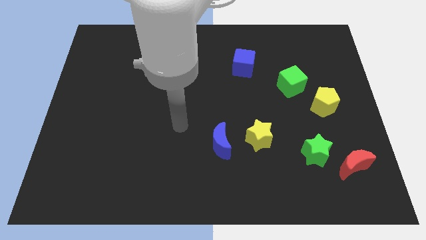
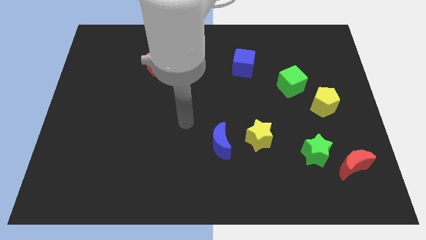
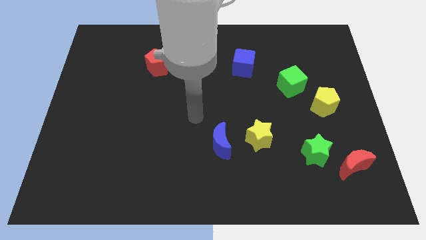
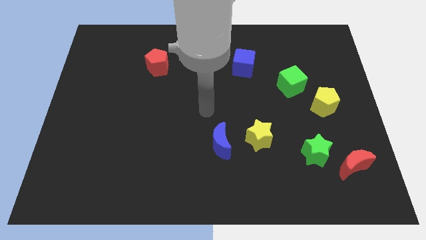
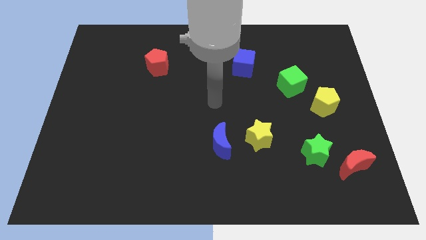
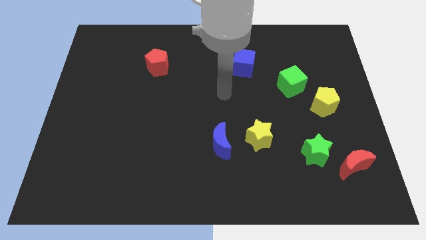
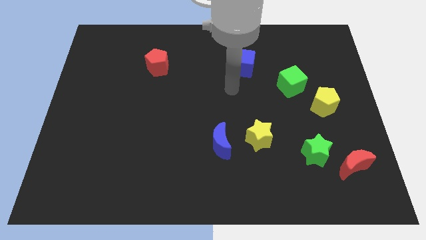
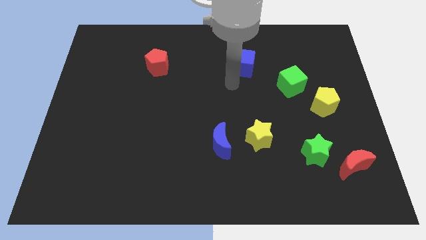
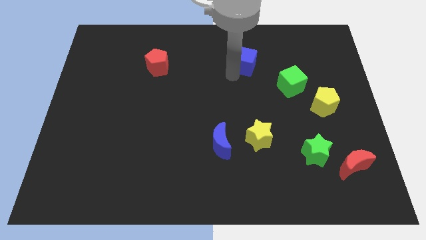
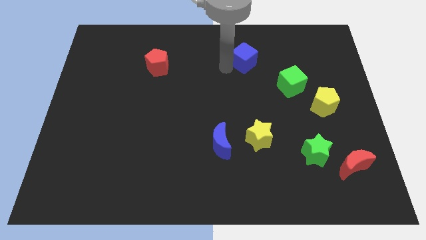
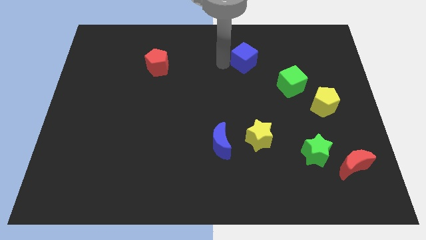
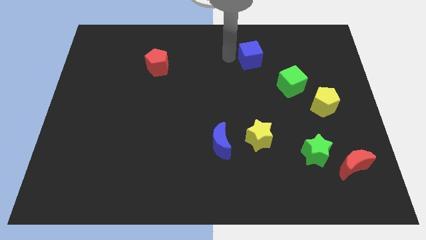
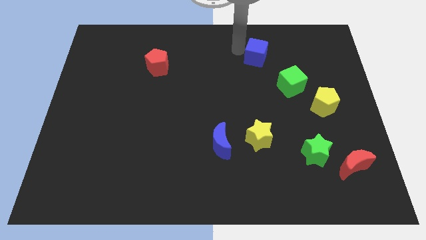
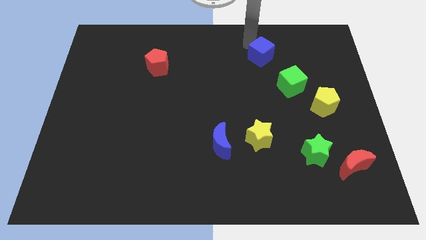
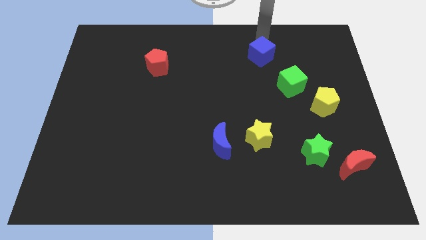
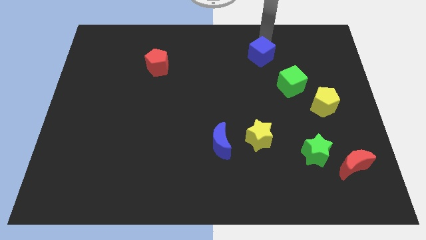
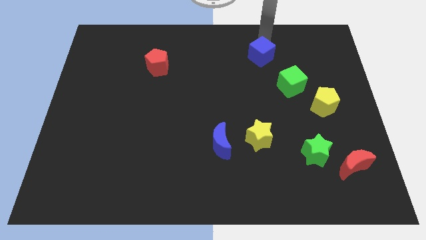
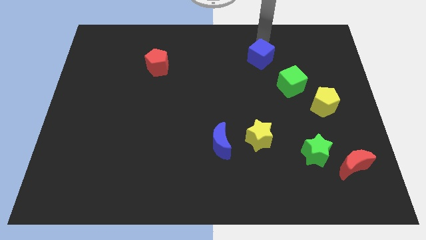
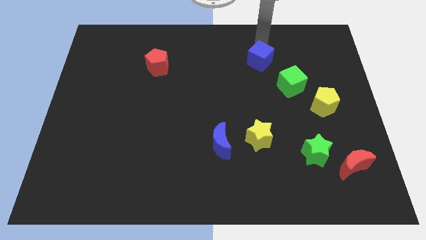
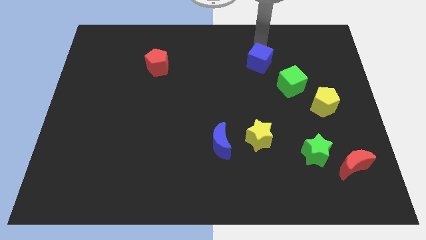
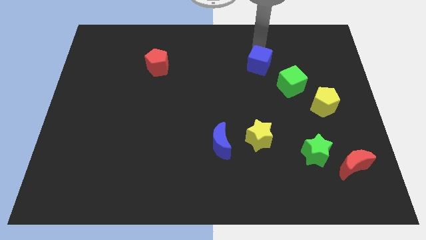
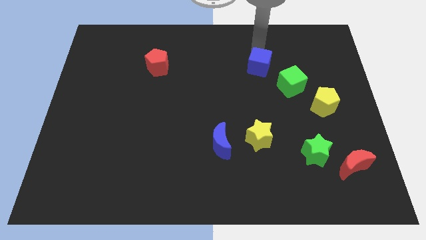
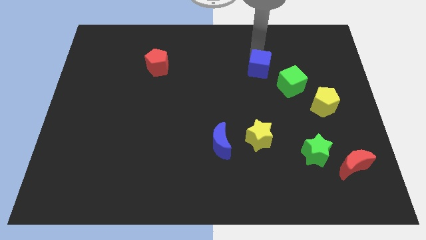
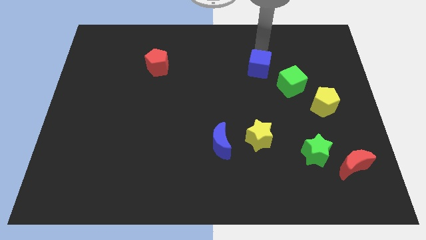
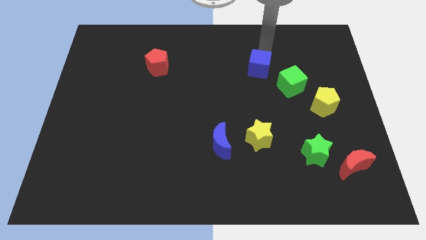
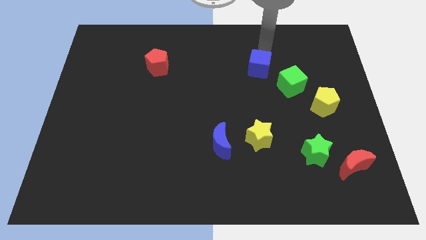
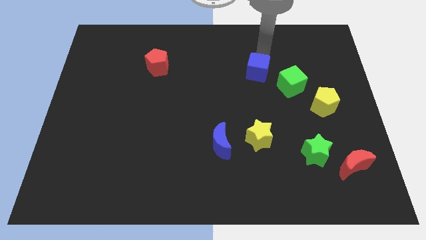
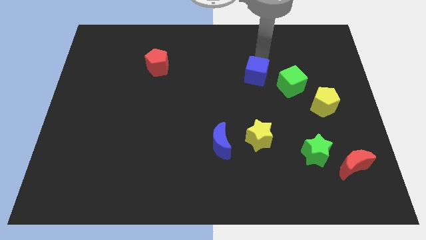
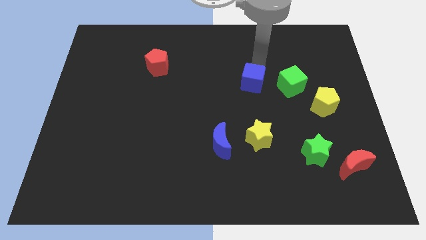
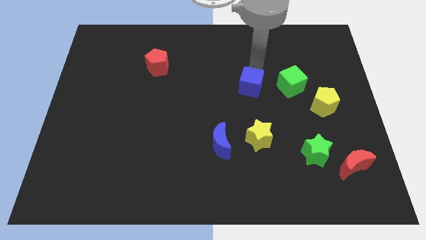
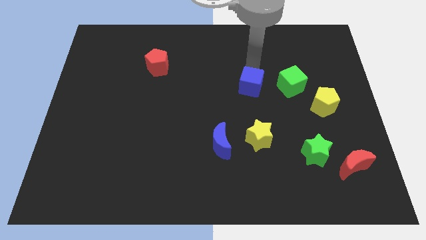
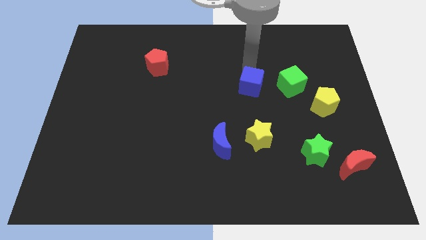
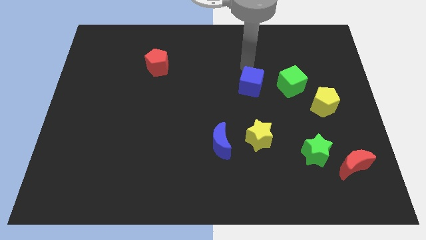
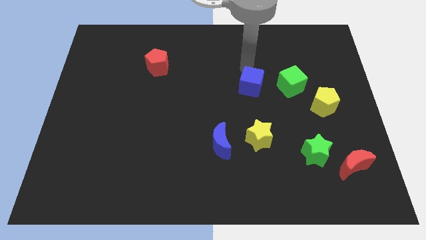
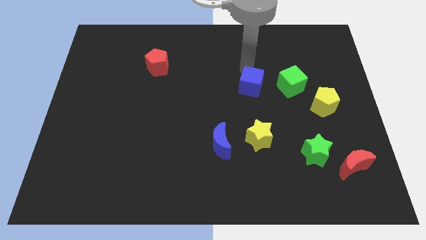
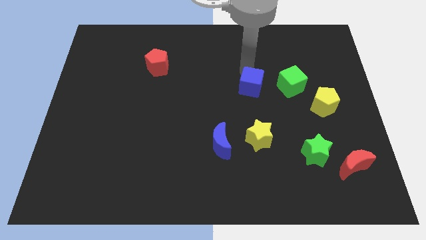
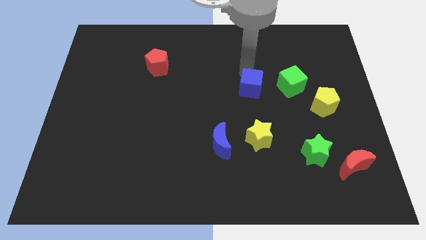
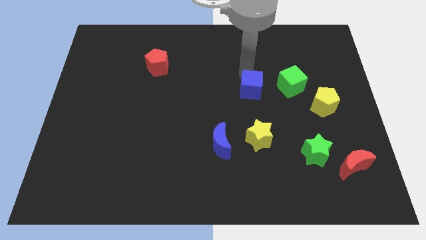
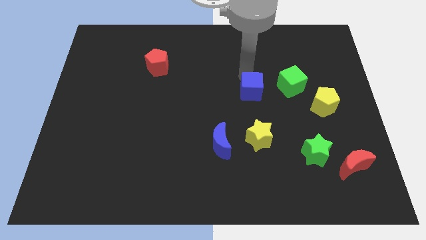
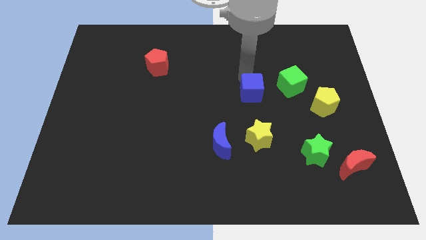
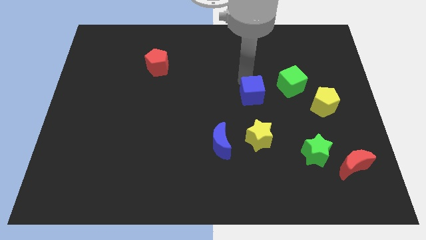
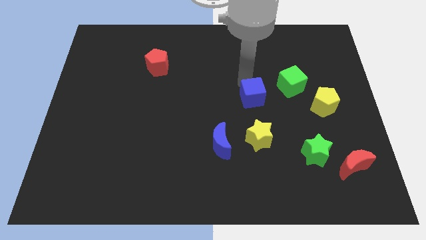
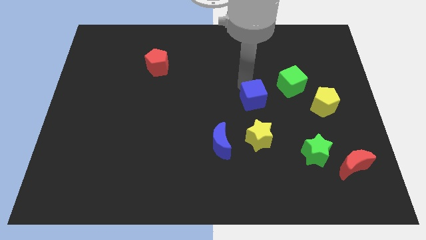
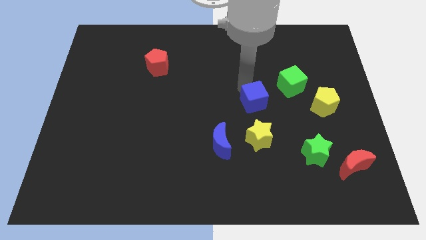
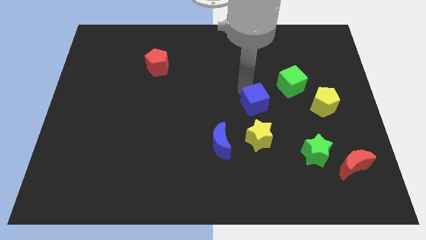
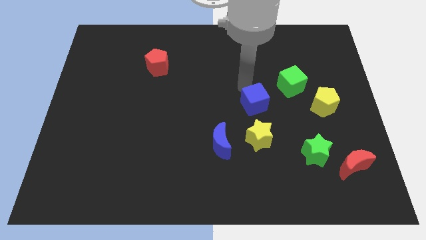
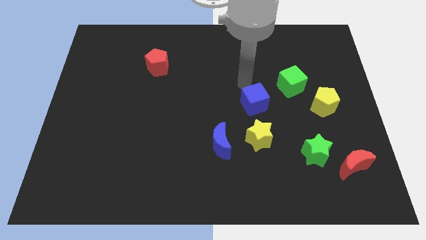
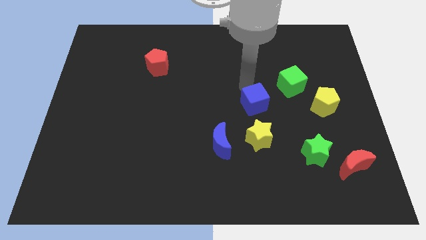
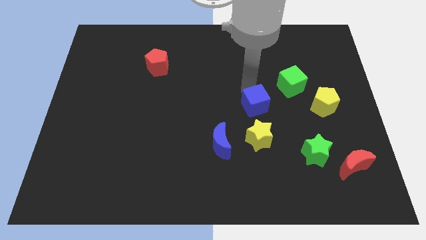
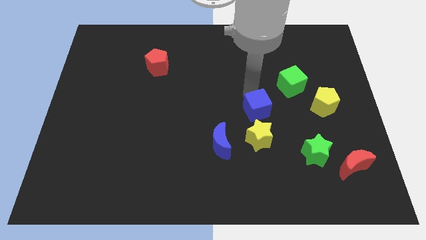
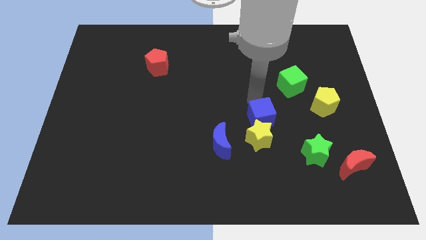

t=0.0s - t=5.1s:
put the blue cube next to the yellow star

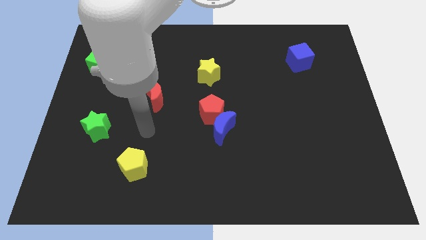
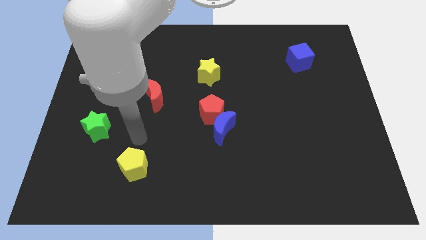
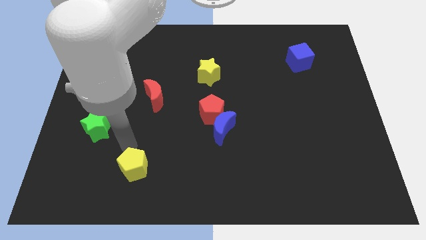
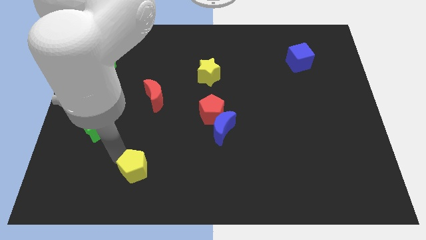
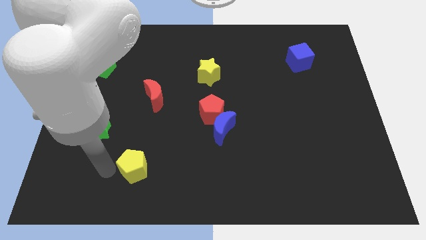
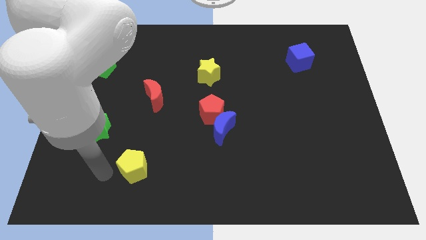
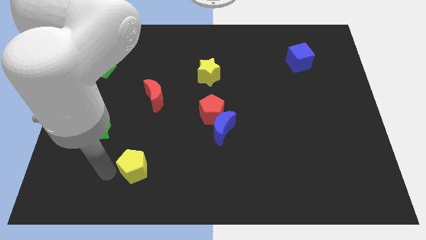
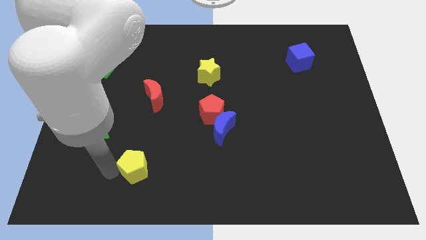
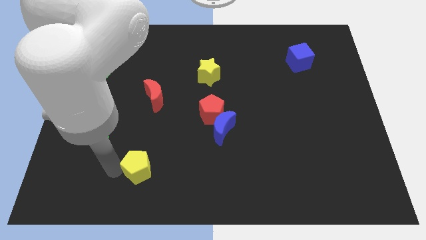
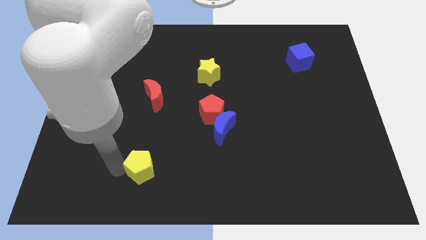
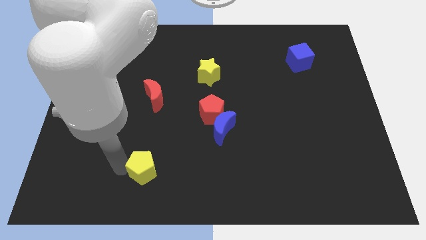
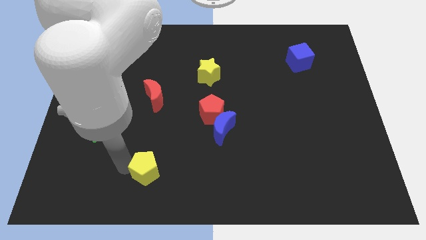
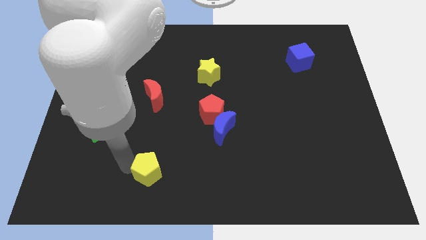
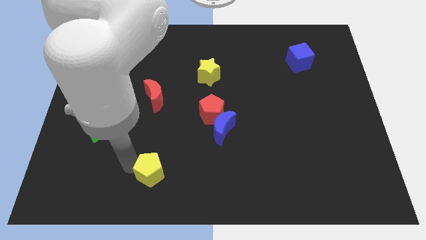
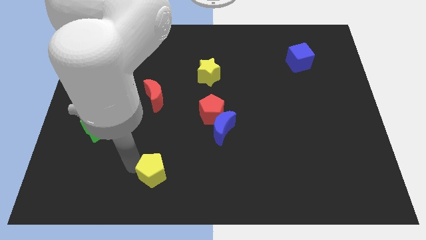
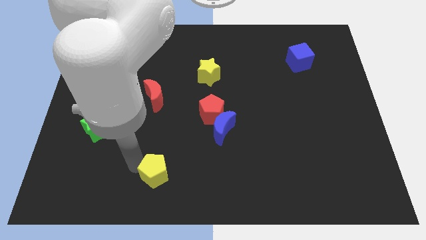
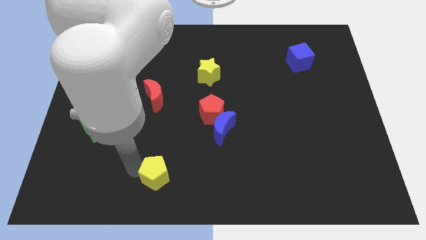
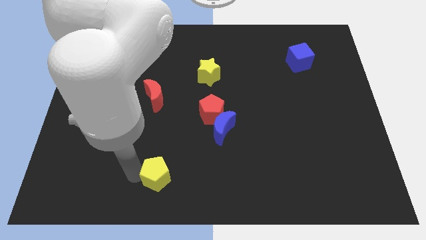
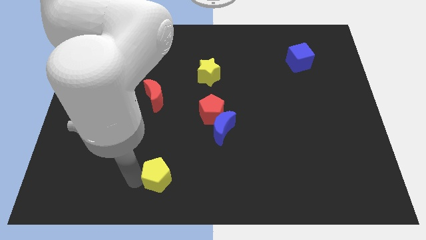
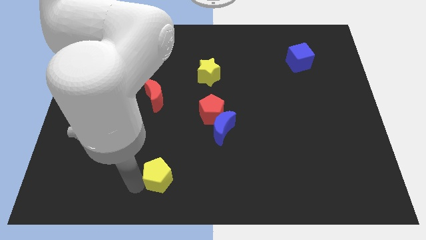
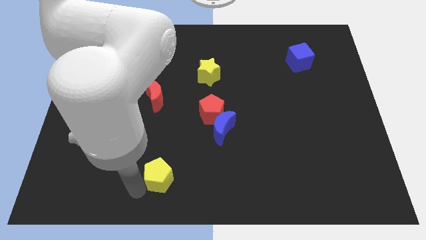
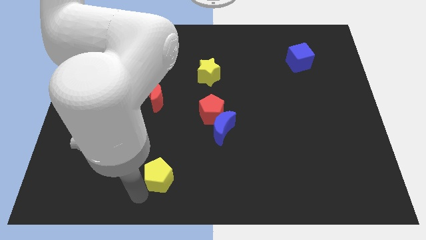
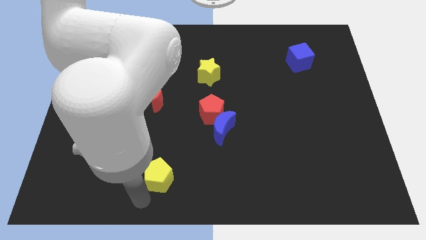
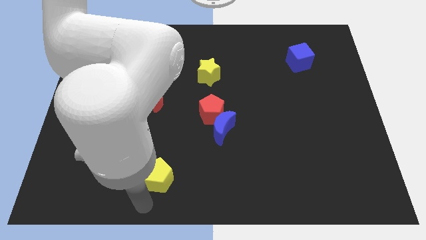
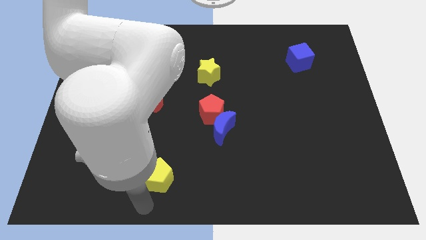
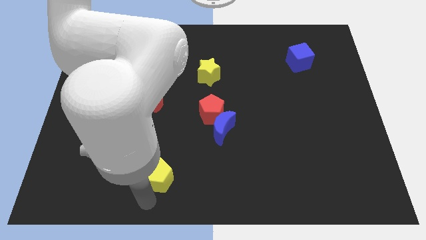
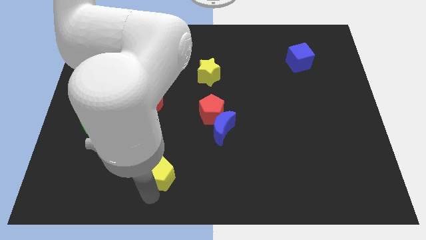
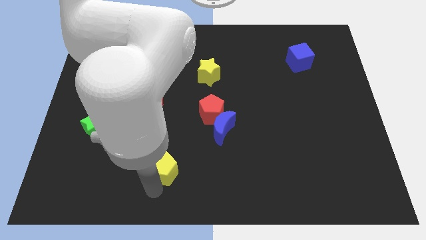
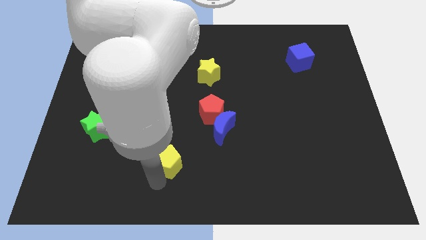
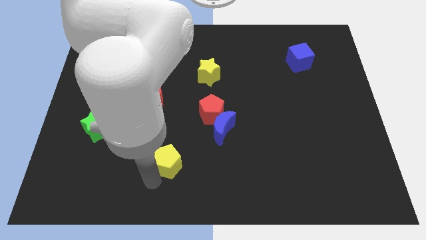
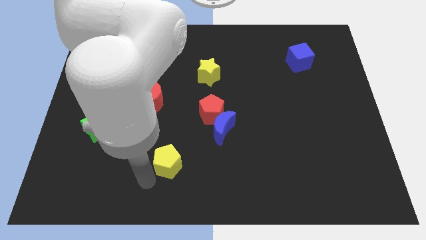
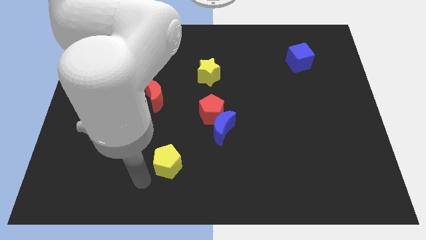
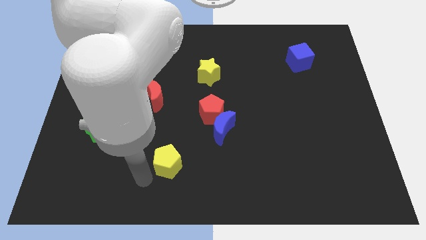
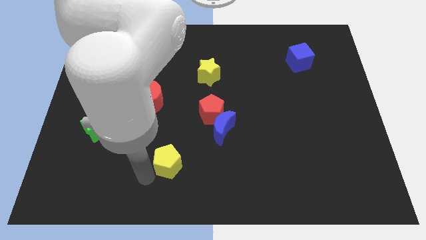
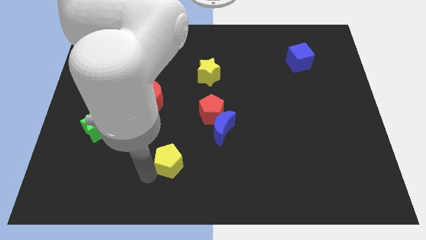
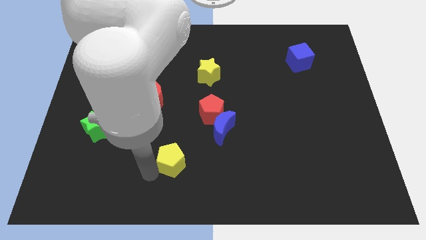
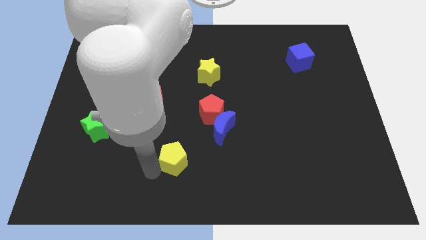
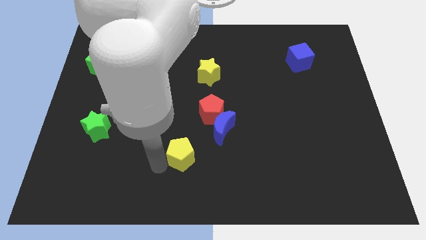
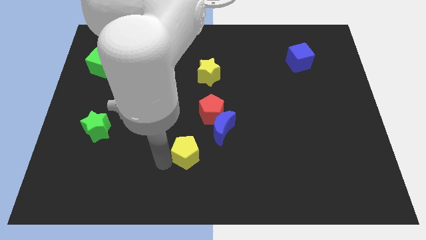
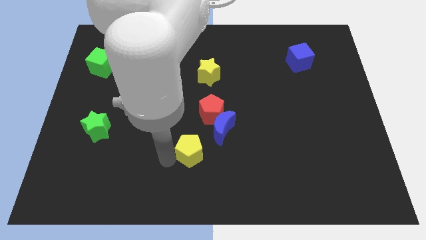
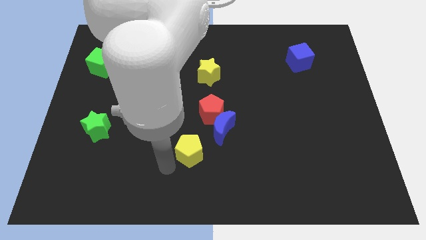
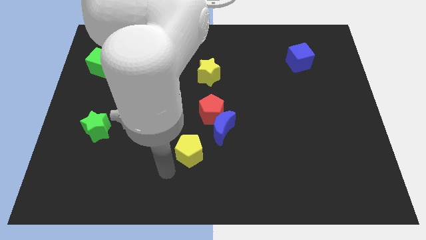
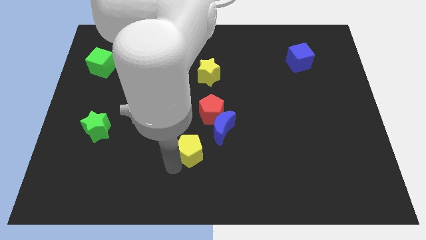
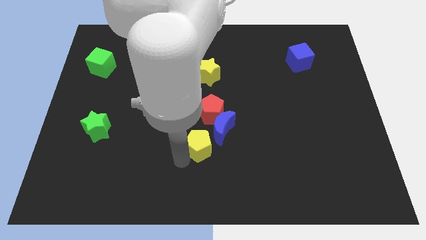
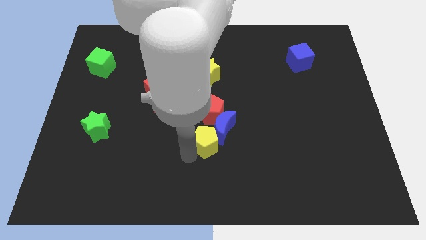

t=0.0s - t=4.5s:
push the yellow pentagon close to the blue moon
